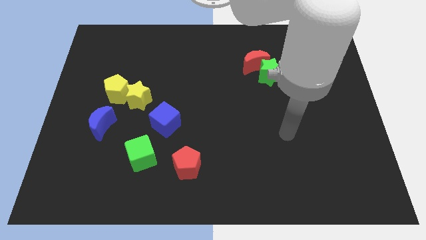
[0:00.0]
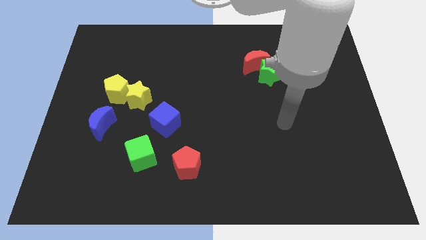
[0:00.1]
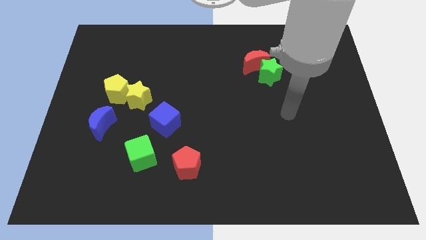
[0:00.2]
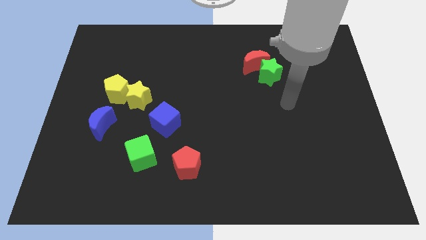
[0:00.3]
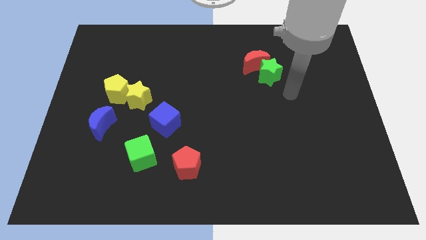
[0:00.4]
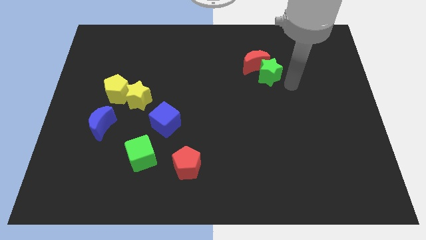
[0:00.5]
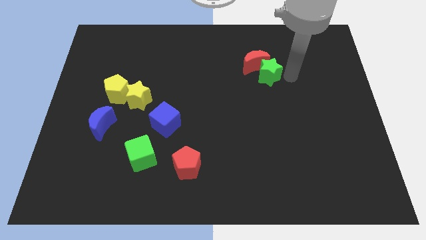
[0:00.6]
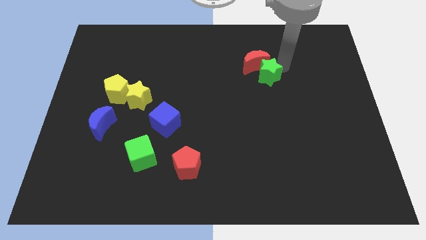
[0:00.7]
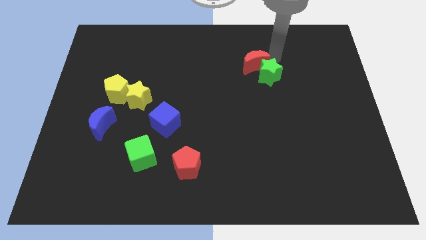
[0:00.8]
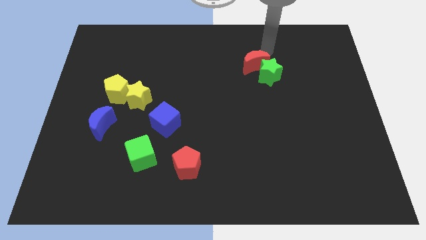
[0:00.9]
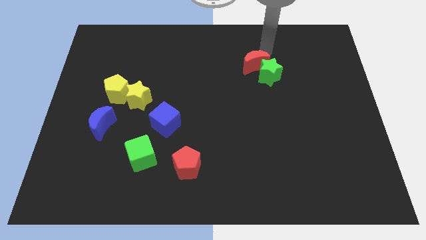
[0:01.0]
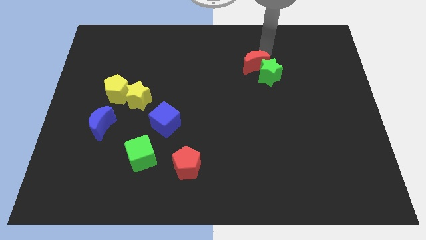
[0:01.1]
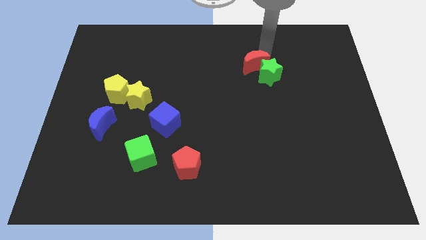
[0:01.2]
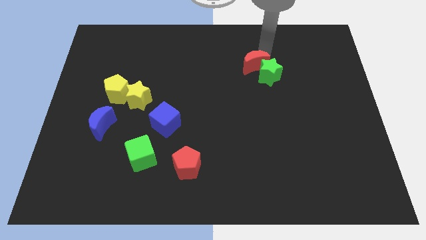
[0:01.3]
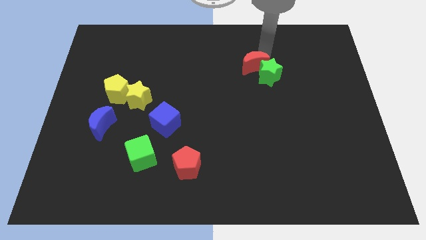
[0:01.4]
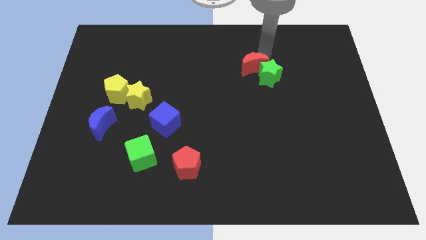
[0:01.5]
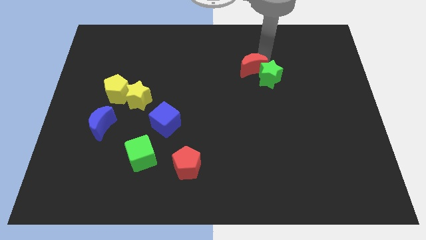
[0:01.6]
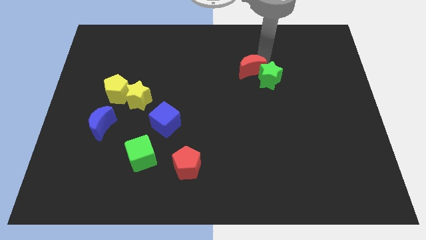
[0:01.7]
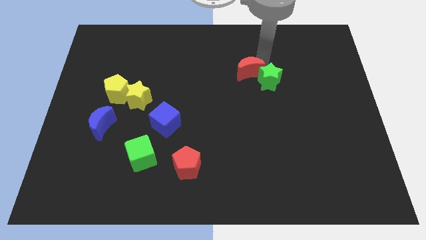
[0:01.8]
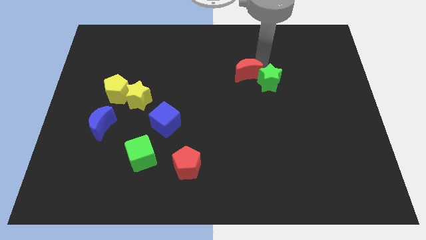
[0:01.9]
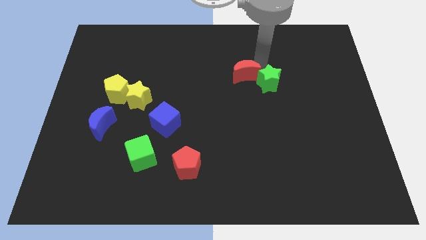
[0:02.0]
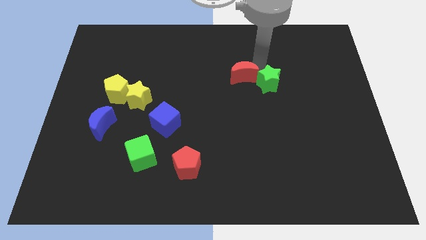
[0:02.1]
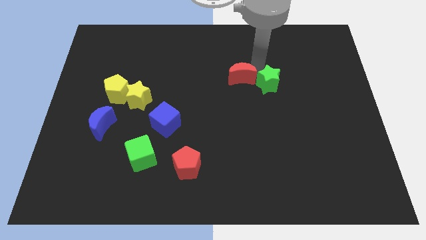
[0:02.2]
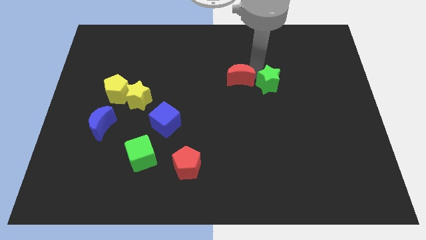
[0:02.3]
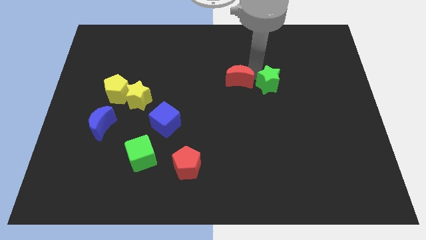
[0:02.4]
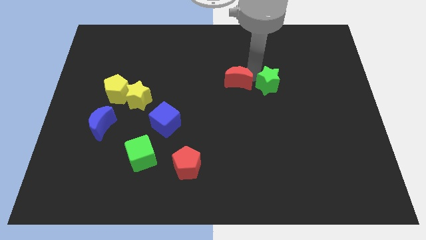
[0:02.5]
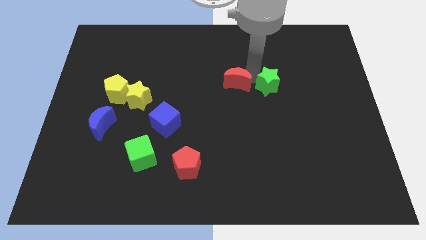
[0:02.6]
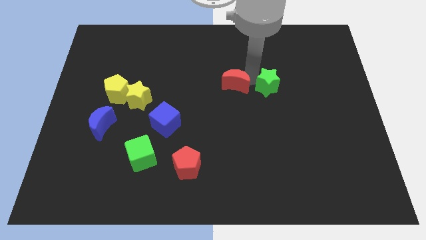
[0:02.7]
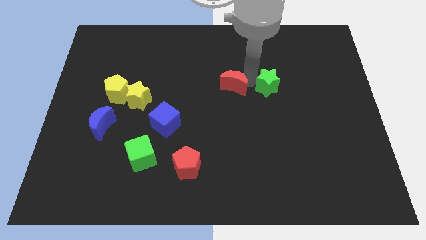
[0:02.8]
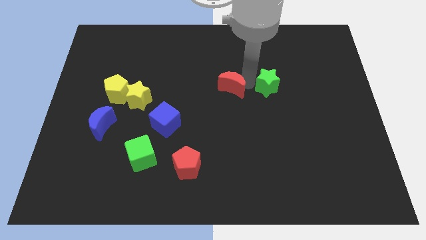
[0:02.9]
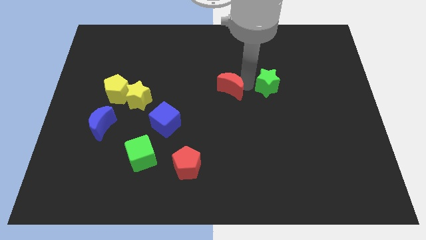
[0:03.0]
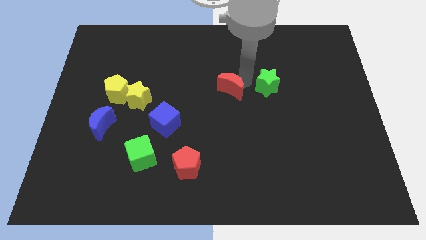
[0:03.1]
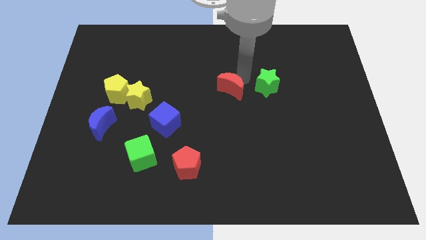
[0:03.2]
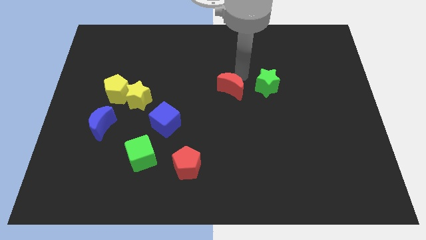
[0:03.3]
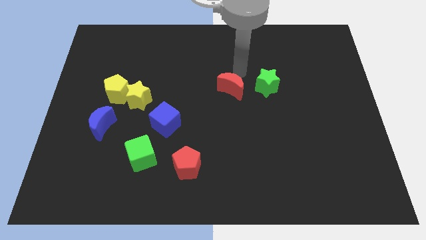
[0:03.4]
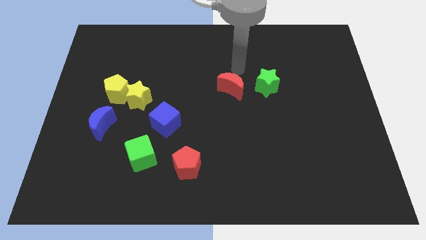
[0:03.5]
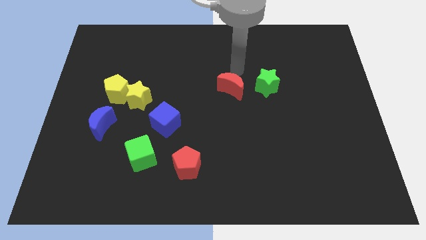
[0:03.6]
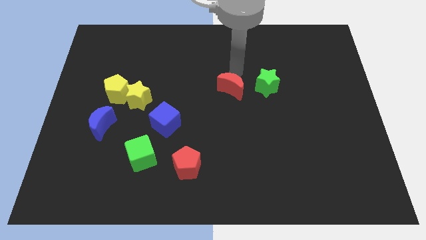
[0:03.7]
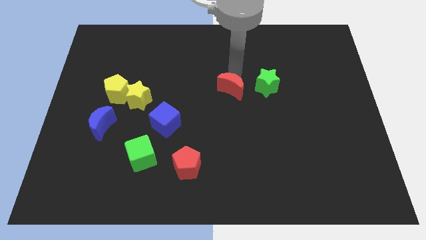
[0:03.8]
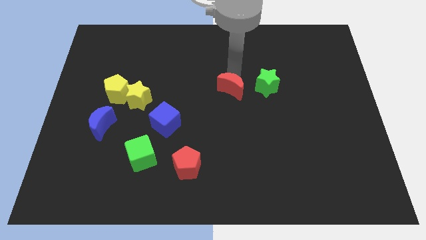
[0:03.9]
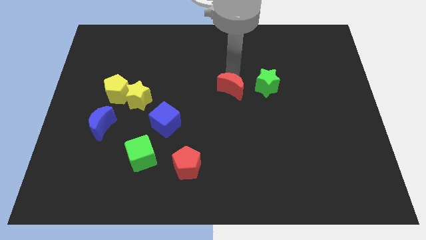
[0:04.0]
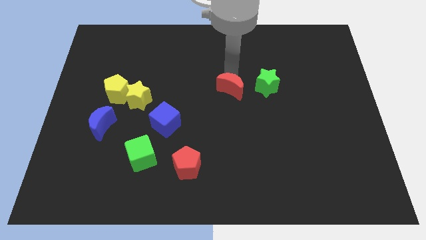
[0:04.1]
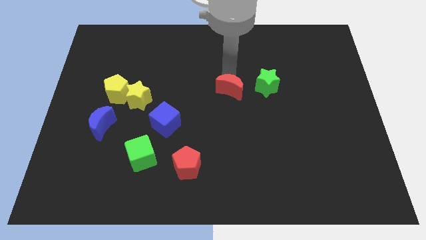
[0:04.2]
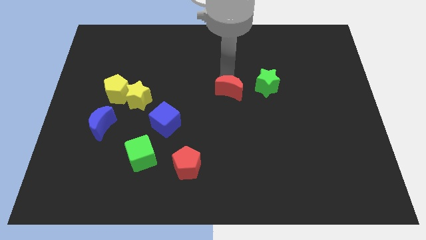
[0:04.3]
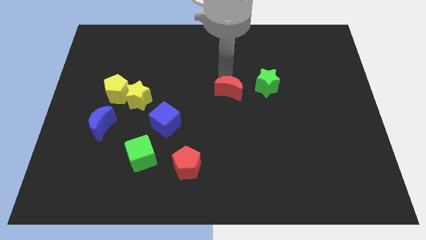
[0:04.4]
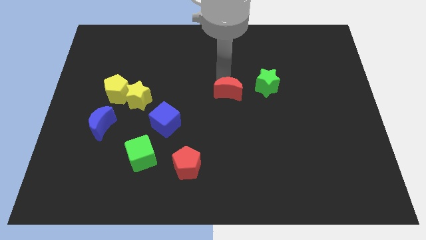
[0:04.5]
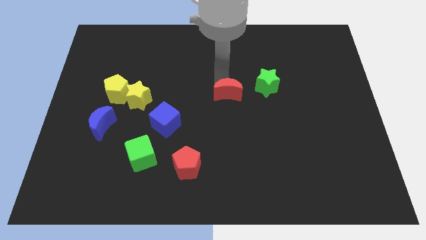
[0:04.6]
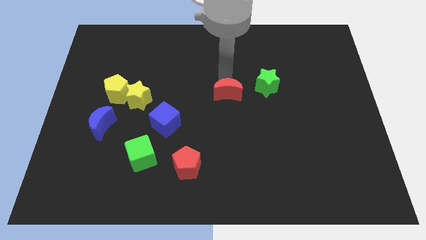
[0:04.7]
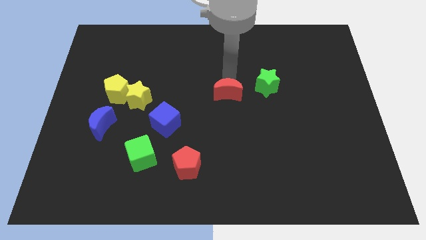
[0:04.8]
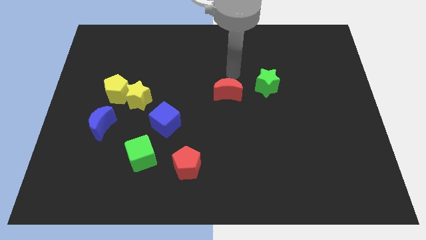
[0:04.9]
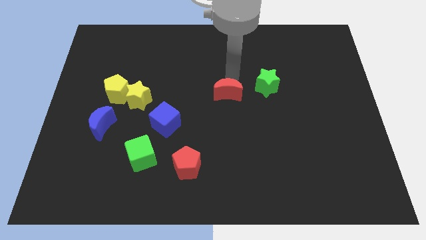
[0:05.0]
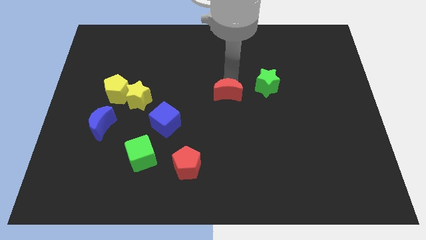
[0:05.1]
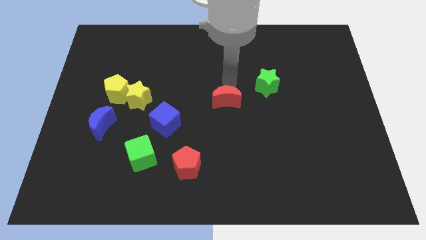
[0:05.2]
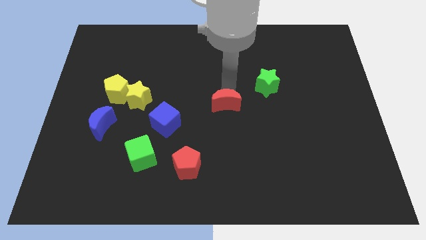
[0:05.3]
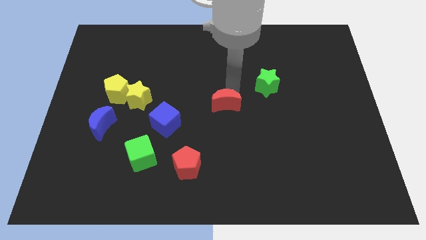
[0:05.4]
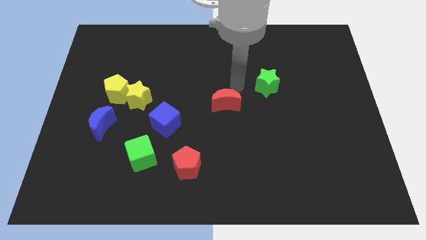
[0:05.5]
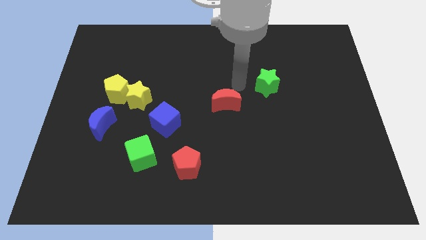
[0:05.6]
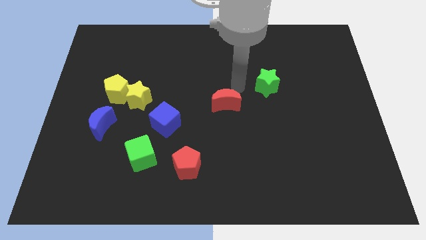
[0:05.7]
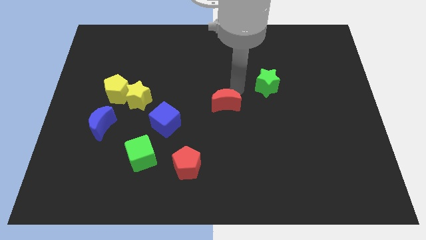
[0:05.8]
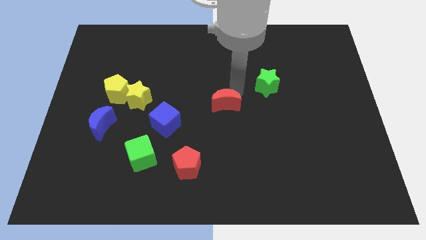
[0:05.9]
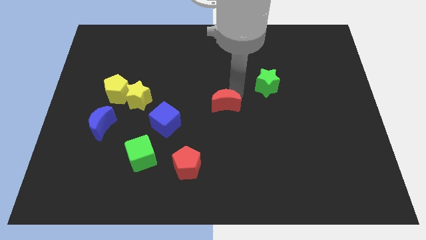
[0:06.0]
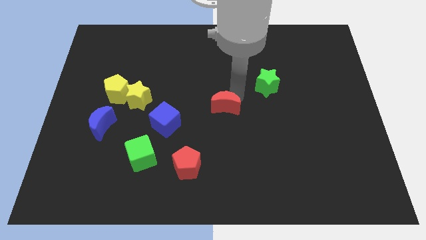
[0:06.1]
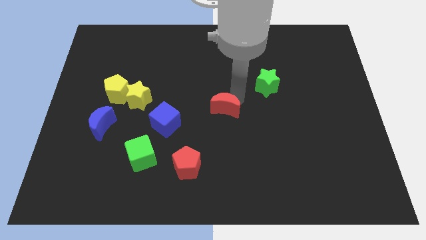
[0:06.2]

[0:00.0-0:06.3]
put the red moon to the right of the blue cube

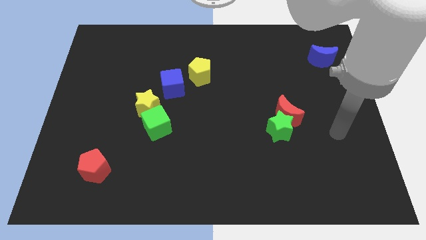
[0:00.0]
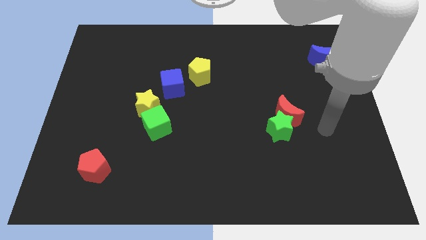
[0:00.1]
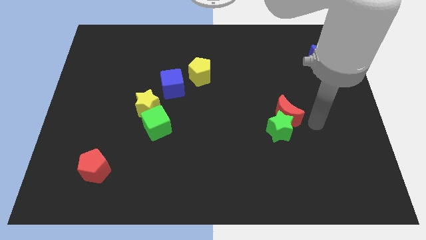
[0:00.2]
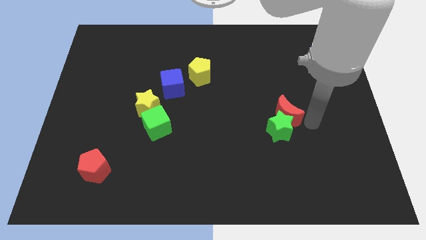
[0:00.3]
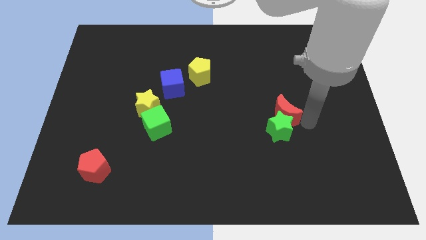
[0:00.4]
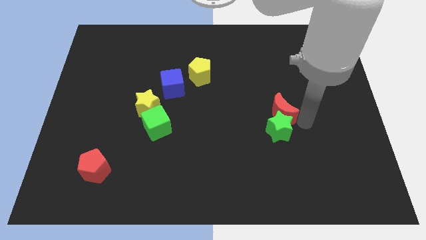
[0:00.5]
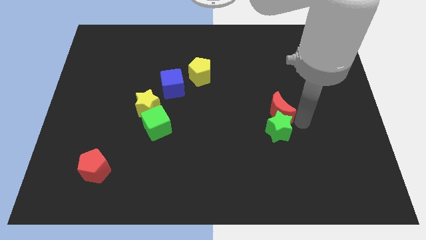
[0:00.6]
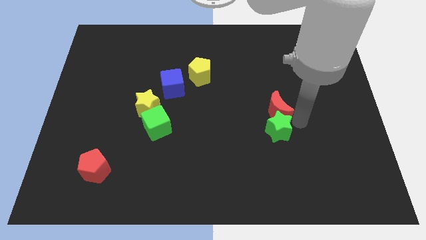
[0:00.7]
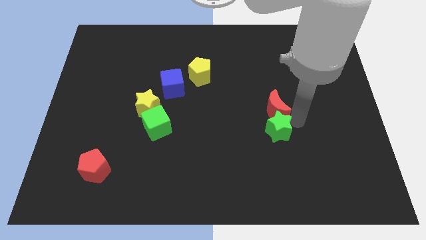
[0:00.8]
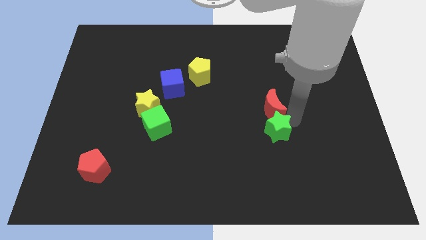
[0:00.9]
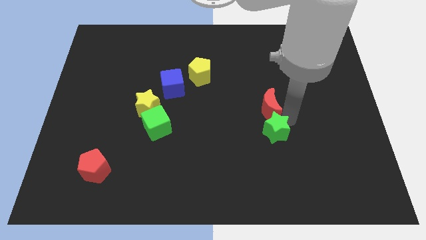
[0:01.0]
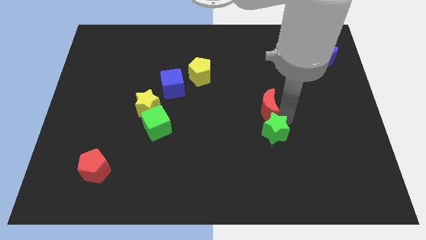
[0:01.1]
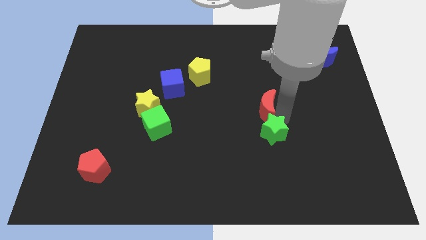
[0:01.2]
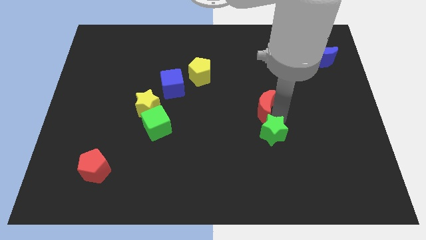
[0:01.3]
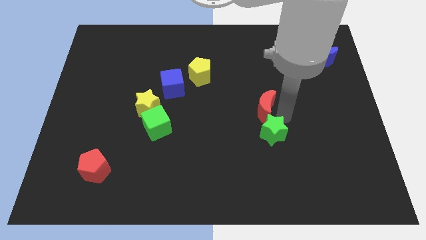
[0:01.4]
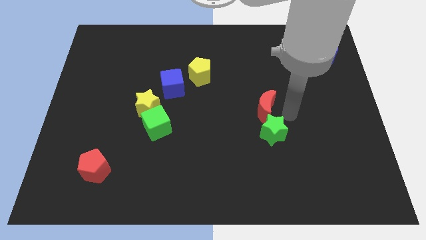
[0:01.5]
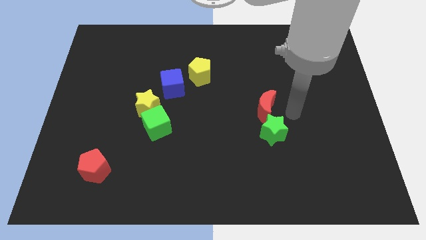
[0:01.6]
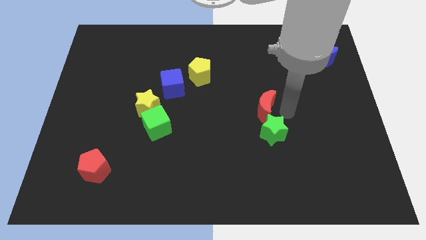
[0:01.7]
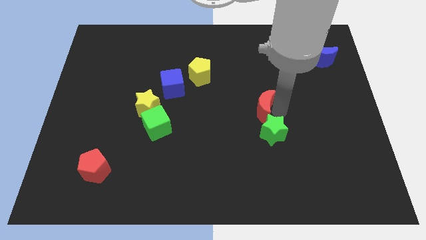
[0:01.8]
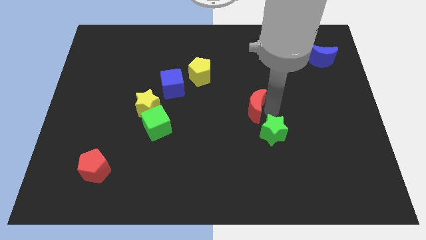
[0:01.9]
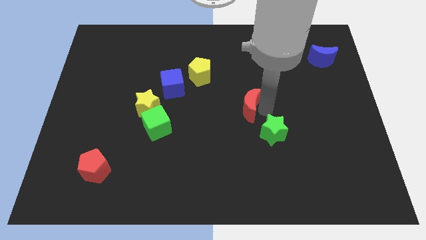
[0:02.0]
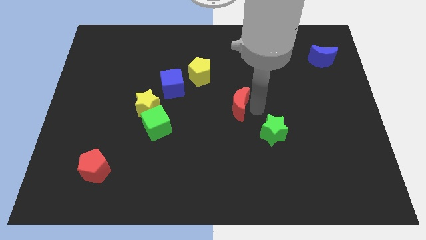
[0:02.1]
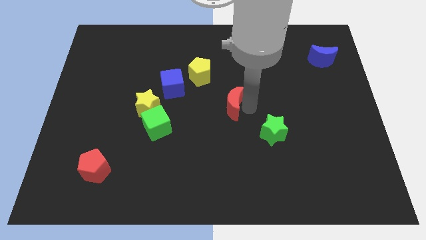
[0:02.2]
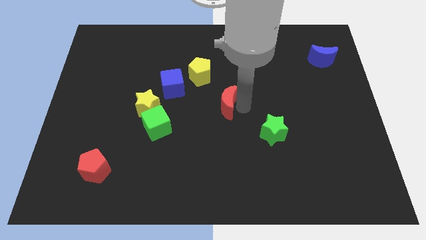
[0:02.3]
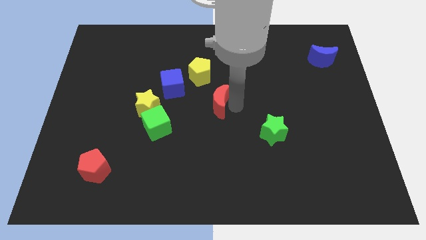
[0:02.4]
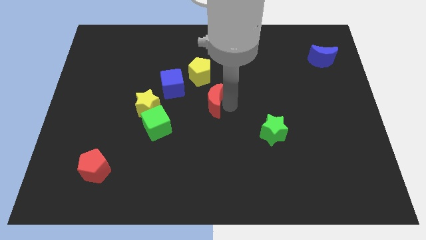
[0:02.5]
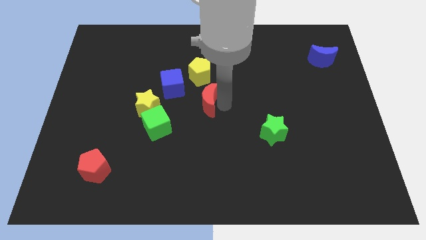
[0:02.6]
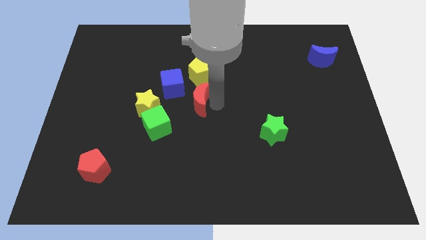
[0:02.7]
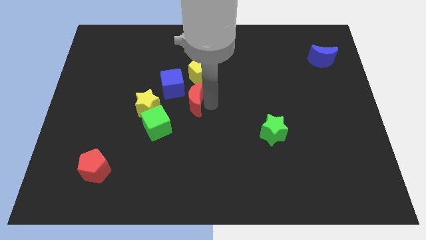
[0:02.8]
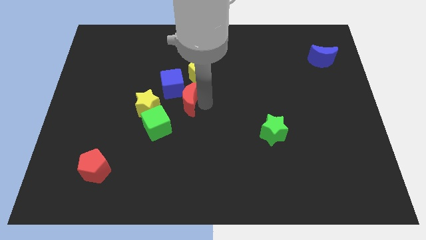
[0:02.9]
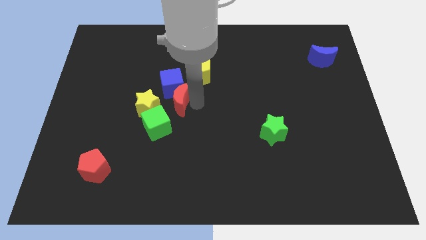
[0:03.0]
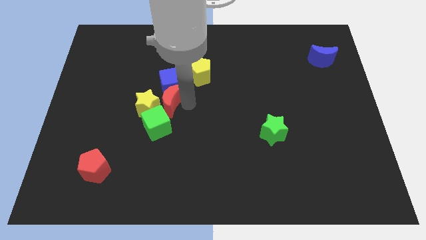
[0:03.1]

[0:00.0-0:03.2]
move the red moon to the top of the green cube
